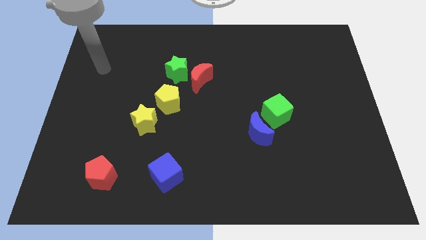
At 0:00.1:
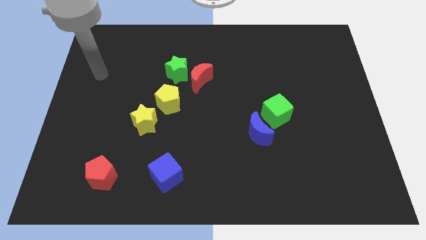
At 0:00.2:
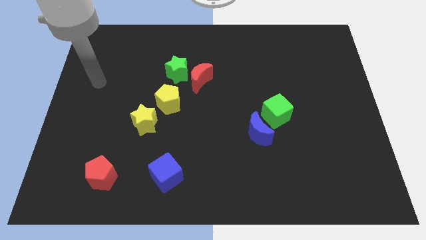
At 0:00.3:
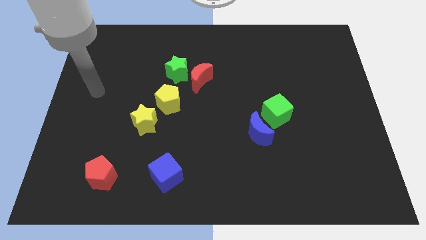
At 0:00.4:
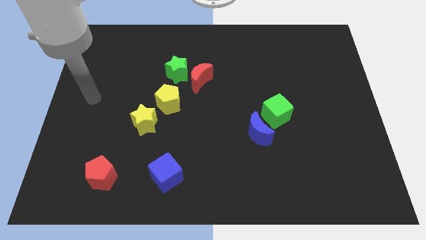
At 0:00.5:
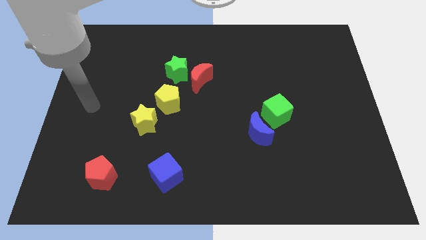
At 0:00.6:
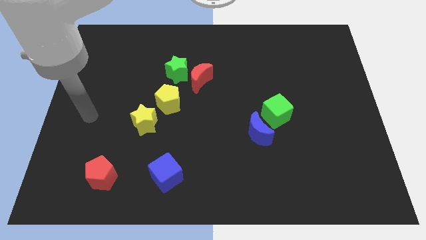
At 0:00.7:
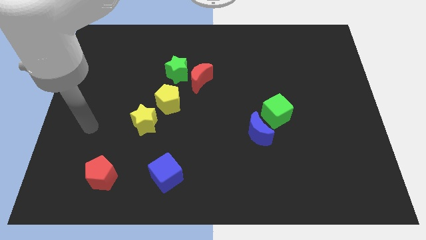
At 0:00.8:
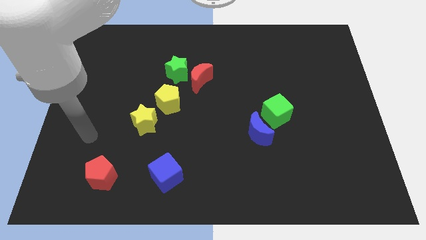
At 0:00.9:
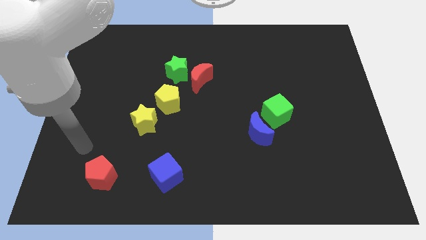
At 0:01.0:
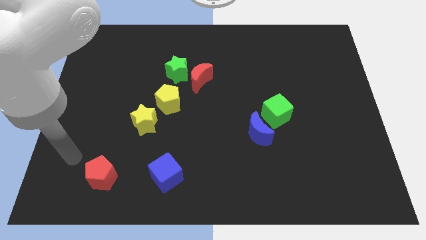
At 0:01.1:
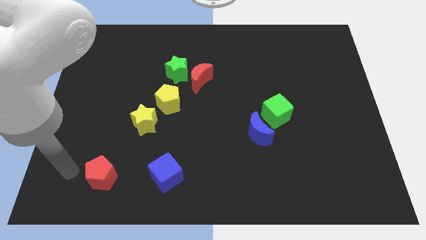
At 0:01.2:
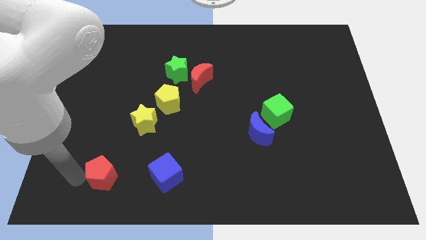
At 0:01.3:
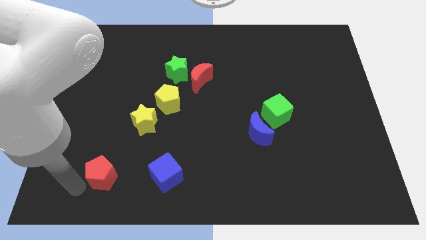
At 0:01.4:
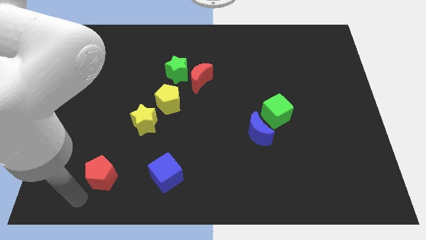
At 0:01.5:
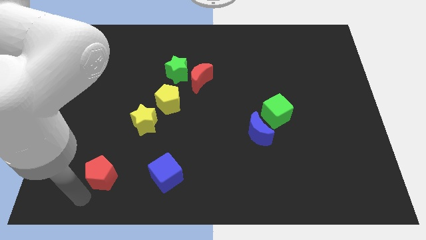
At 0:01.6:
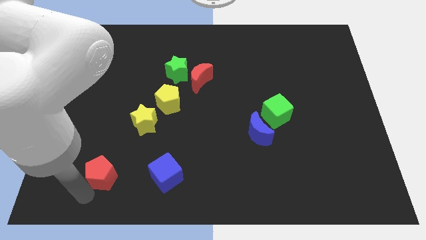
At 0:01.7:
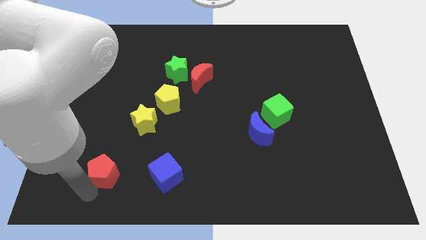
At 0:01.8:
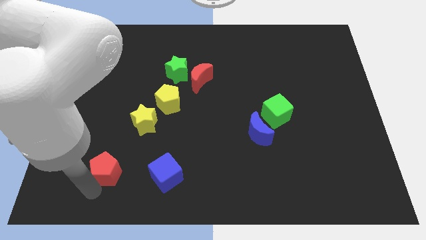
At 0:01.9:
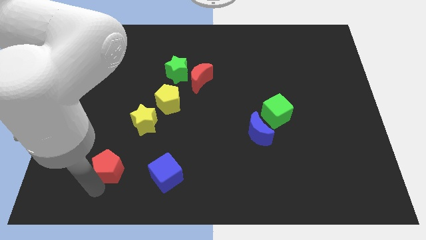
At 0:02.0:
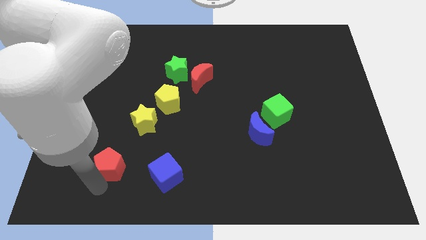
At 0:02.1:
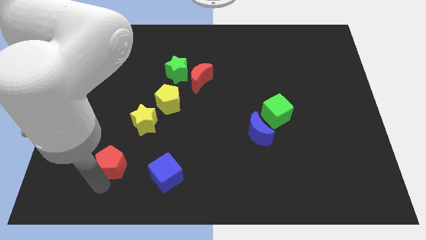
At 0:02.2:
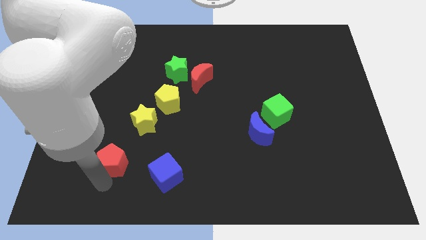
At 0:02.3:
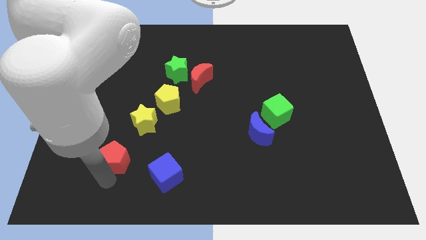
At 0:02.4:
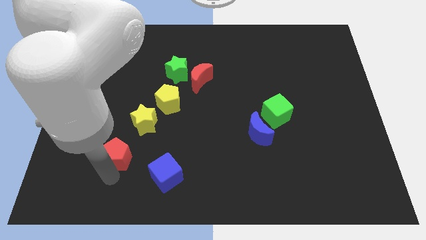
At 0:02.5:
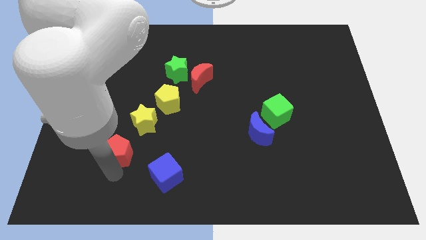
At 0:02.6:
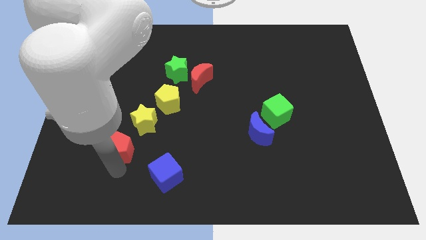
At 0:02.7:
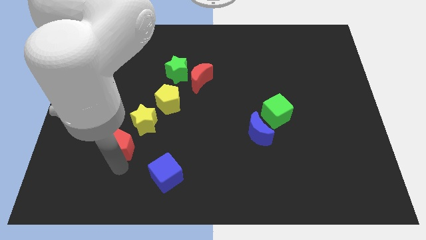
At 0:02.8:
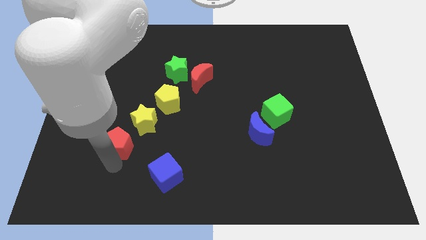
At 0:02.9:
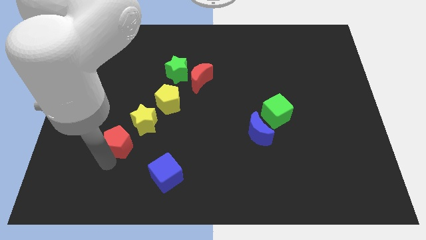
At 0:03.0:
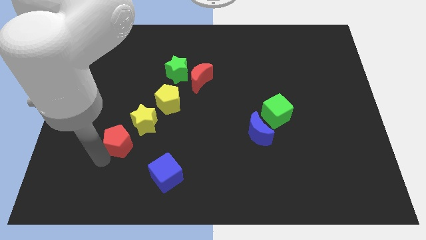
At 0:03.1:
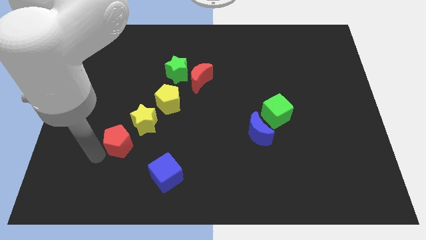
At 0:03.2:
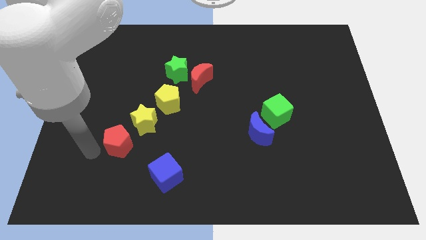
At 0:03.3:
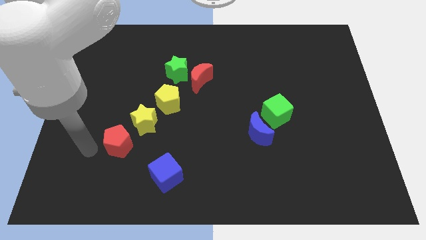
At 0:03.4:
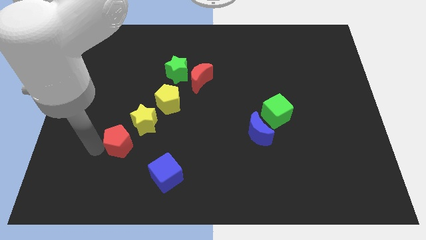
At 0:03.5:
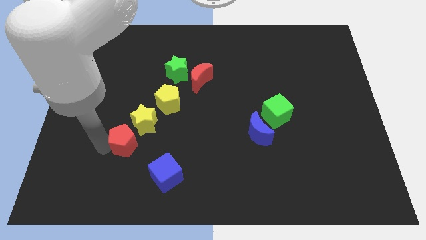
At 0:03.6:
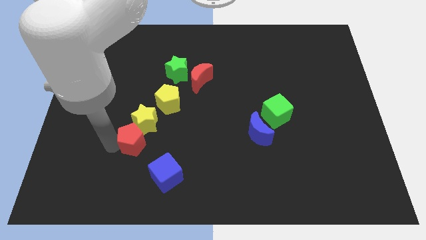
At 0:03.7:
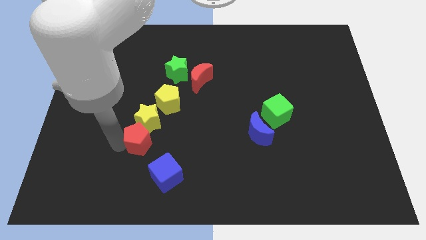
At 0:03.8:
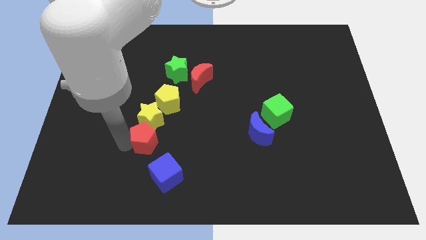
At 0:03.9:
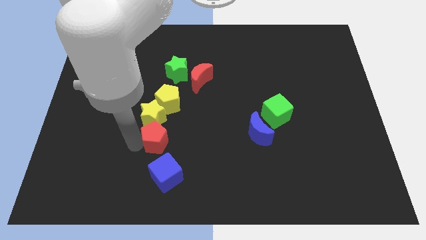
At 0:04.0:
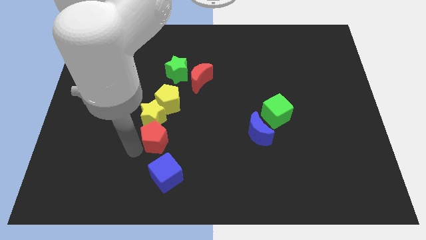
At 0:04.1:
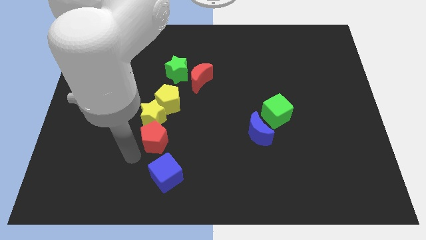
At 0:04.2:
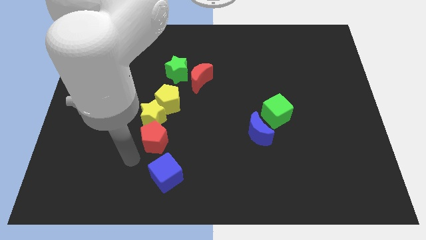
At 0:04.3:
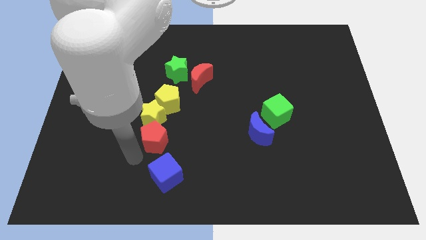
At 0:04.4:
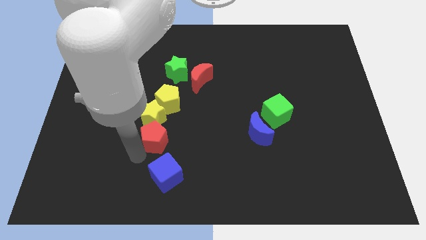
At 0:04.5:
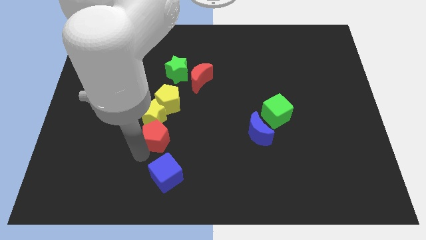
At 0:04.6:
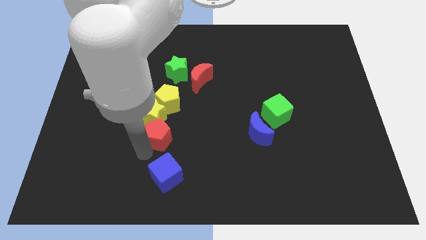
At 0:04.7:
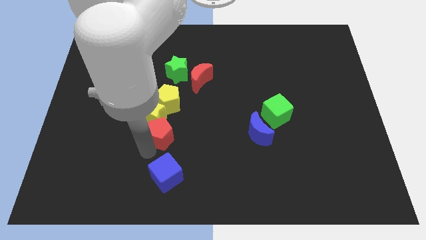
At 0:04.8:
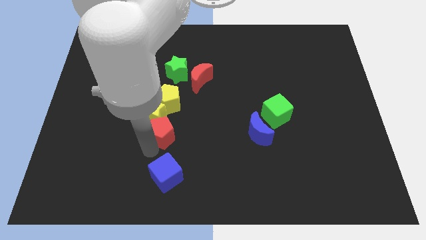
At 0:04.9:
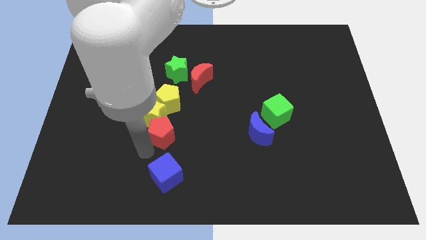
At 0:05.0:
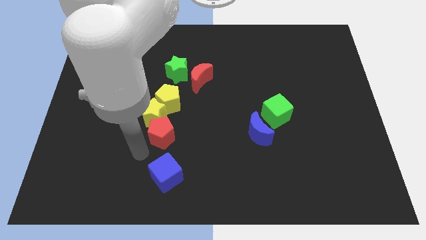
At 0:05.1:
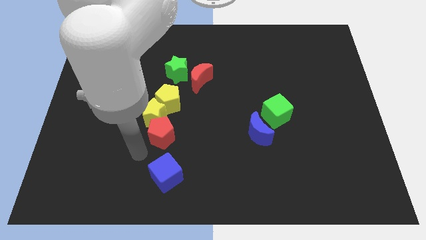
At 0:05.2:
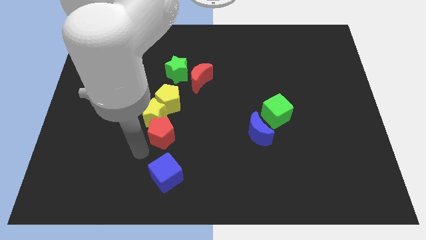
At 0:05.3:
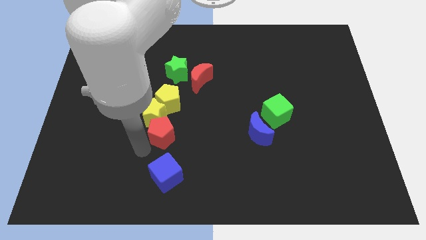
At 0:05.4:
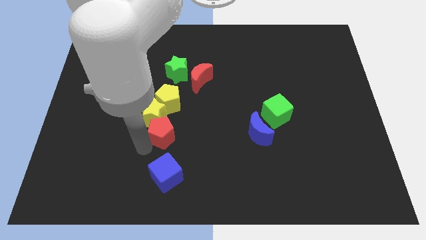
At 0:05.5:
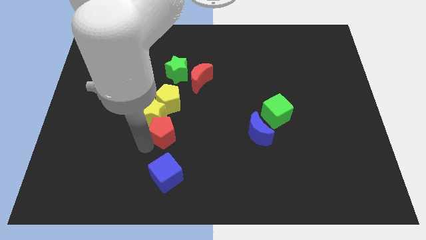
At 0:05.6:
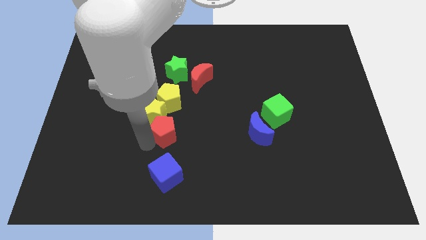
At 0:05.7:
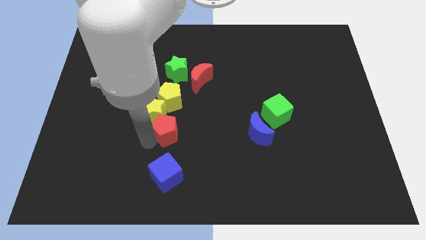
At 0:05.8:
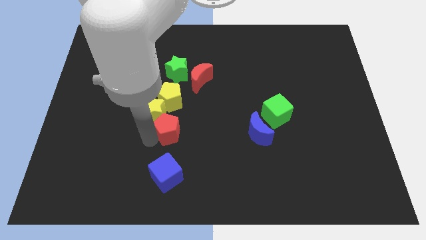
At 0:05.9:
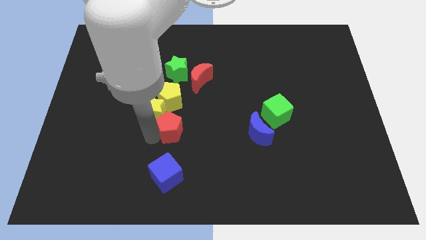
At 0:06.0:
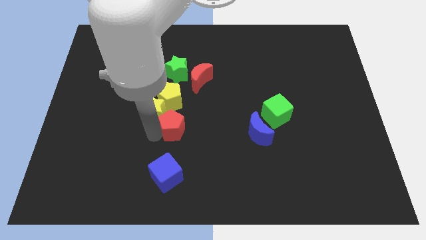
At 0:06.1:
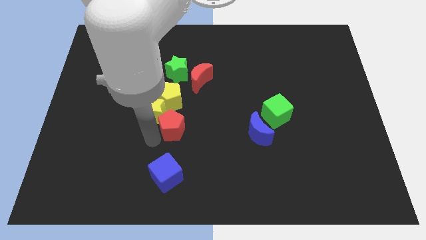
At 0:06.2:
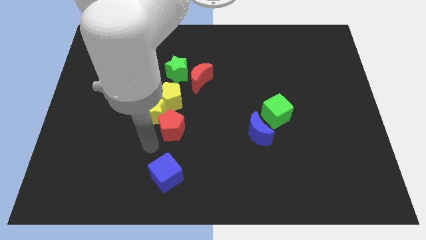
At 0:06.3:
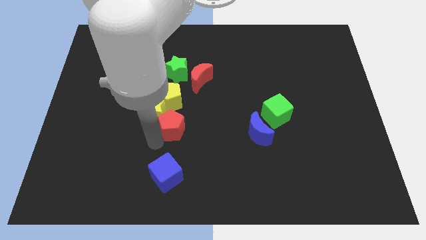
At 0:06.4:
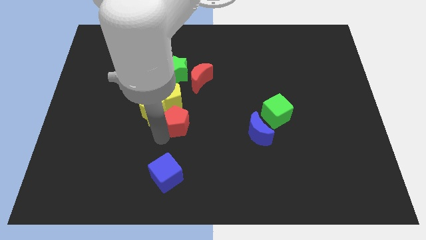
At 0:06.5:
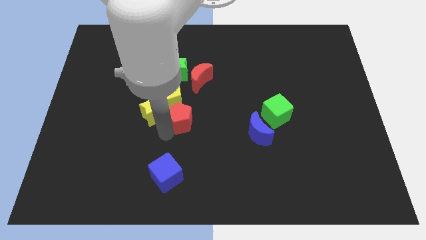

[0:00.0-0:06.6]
slide the red pentagon upwards and to the right

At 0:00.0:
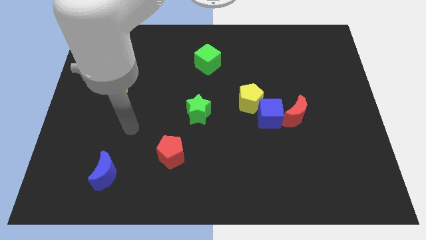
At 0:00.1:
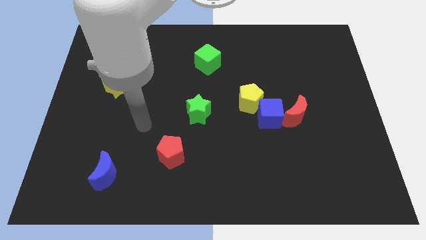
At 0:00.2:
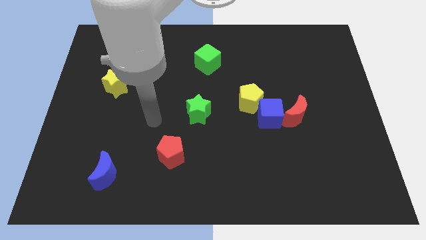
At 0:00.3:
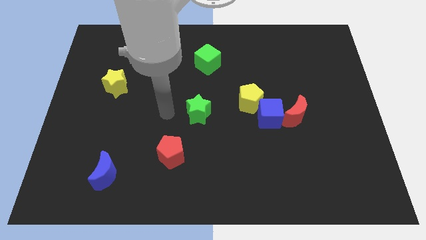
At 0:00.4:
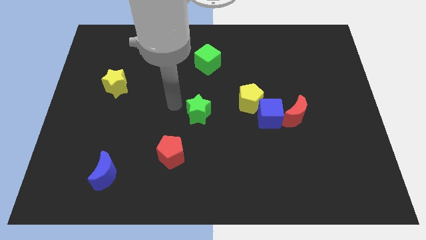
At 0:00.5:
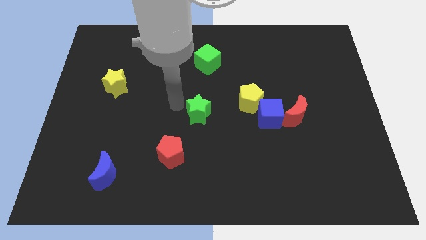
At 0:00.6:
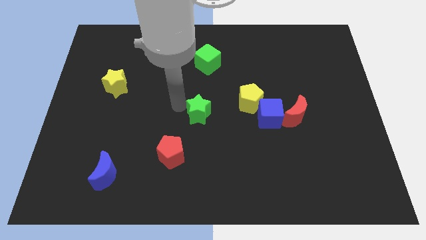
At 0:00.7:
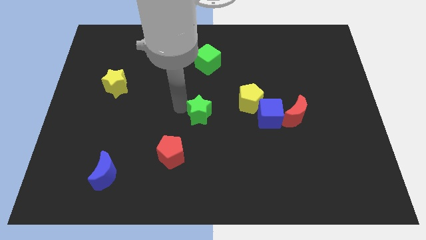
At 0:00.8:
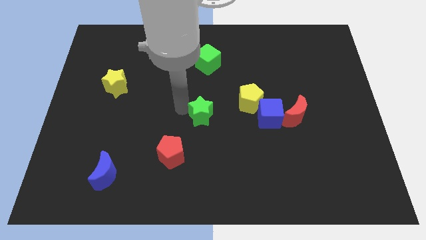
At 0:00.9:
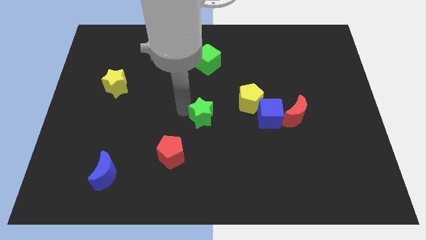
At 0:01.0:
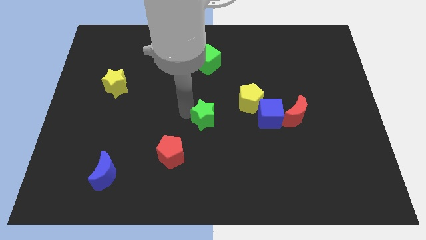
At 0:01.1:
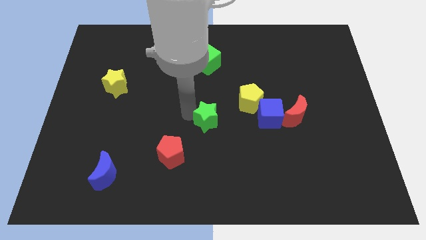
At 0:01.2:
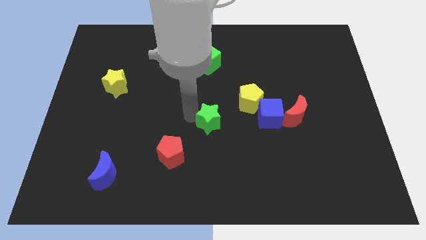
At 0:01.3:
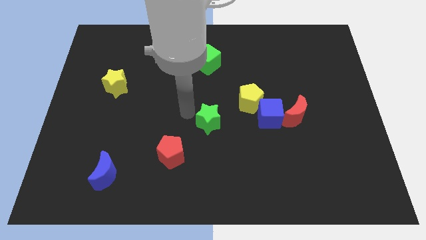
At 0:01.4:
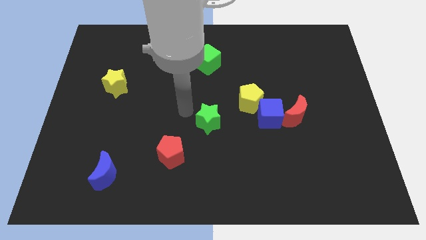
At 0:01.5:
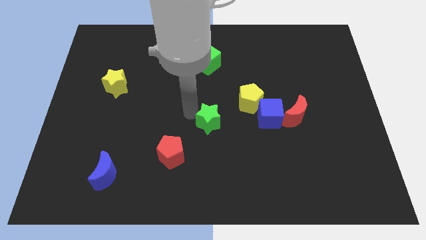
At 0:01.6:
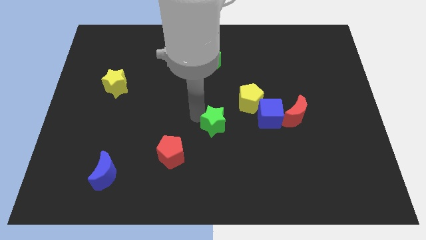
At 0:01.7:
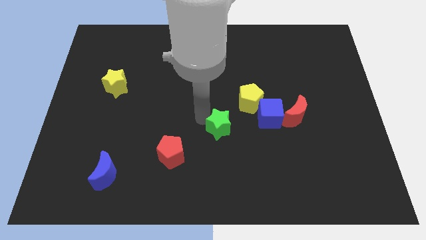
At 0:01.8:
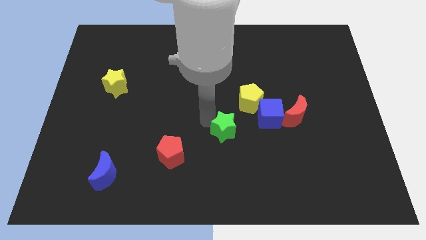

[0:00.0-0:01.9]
slide the green star slightly down and then to the right
